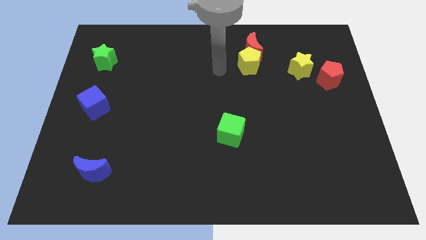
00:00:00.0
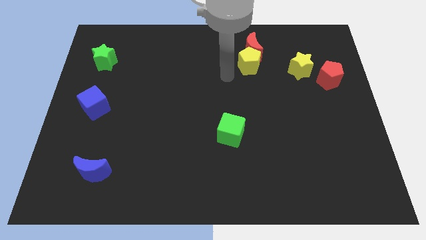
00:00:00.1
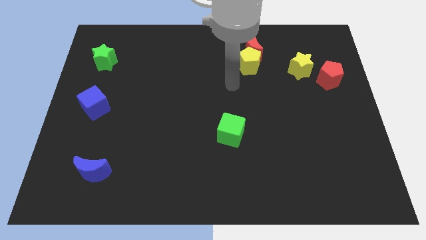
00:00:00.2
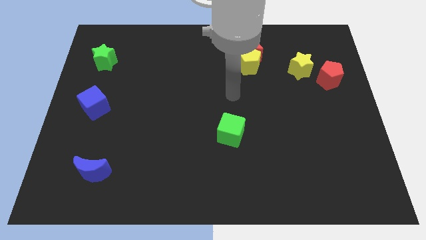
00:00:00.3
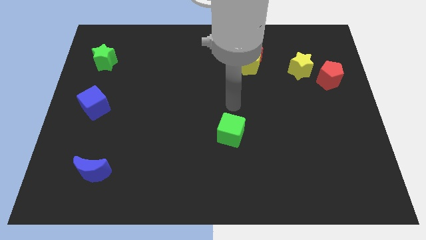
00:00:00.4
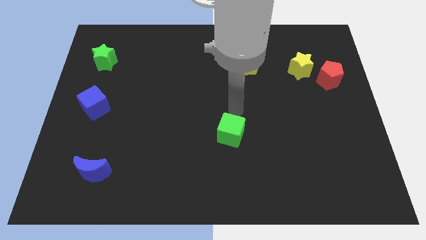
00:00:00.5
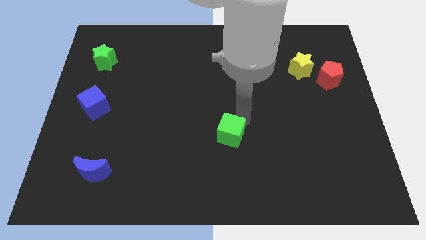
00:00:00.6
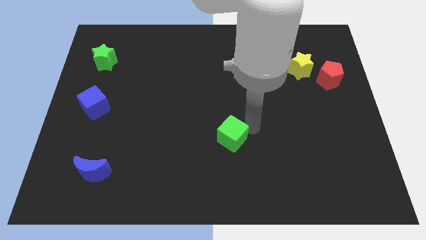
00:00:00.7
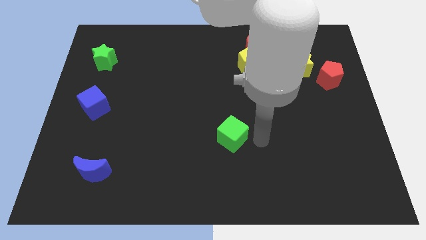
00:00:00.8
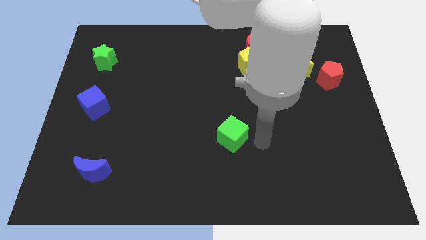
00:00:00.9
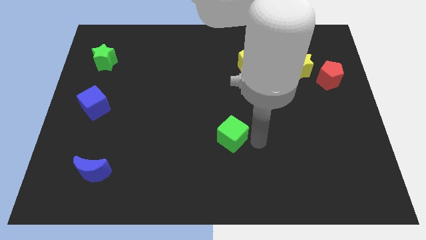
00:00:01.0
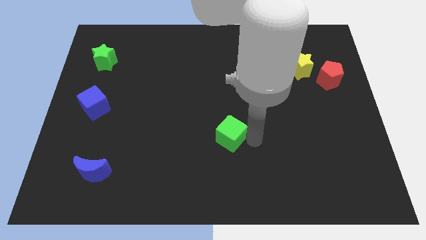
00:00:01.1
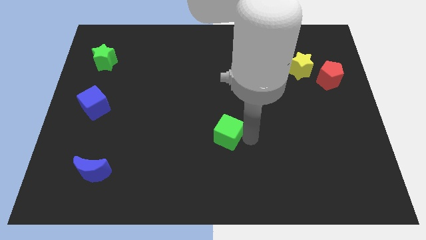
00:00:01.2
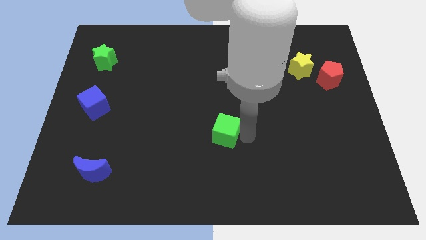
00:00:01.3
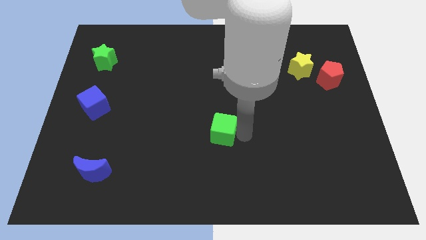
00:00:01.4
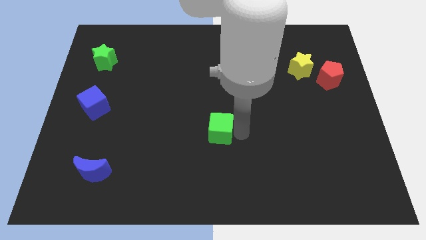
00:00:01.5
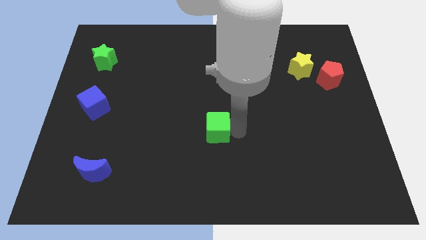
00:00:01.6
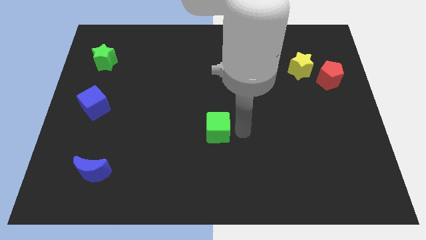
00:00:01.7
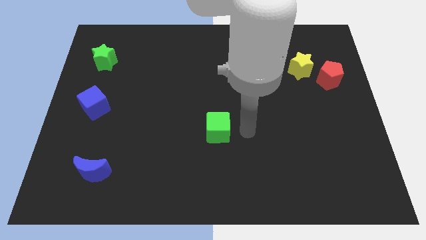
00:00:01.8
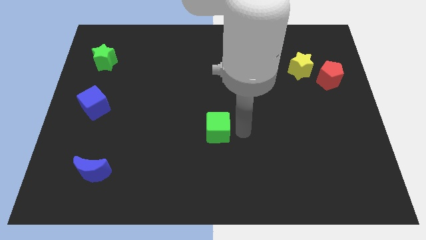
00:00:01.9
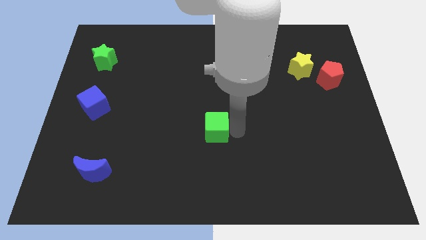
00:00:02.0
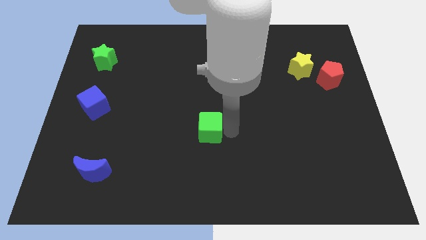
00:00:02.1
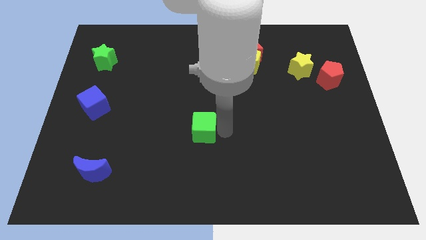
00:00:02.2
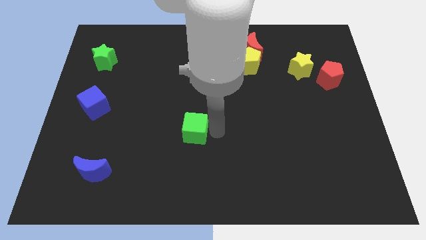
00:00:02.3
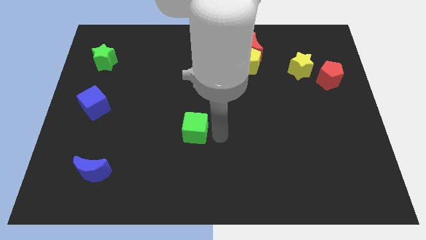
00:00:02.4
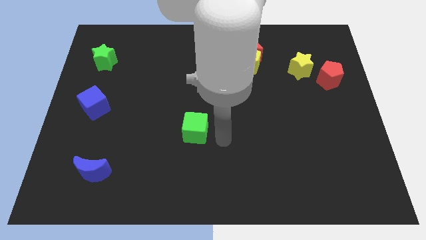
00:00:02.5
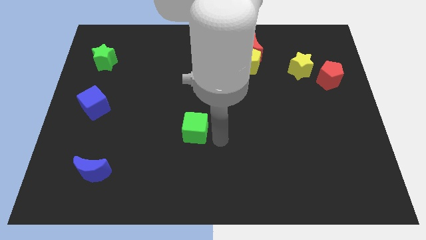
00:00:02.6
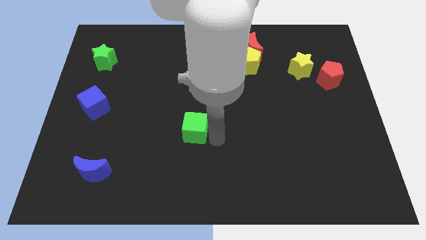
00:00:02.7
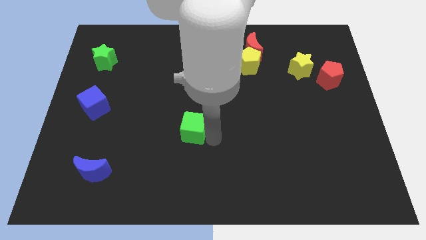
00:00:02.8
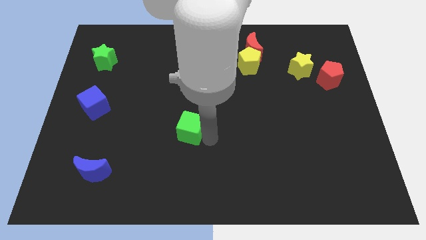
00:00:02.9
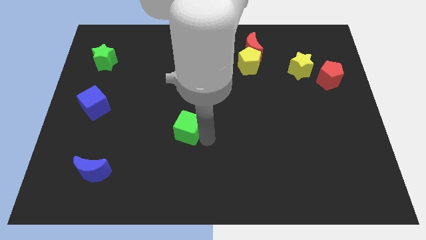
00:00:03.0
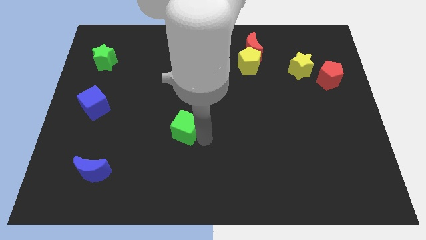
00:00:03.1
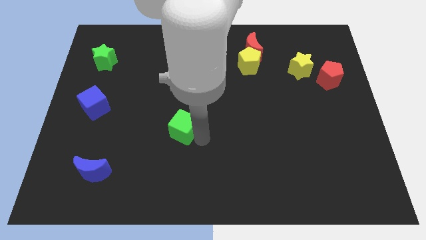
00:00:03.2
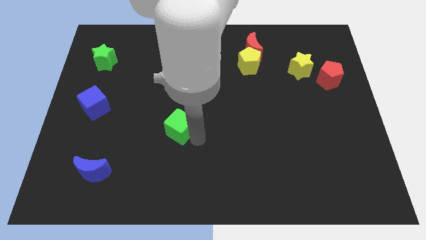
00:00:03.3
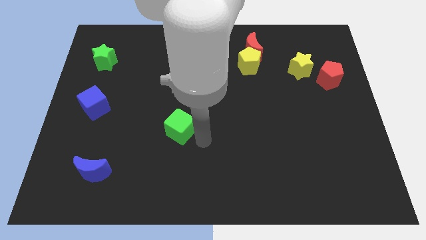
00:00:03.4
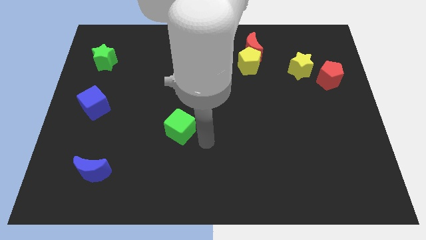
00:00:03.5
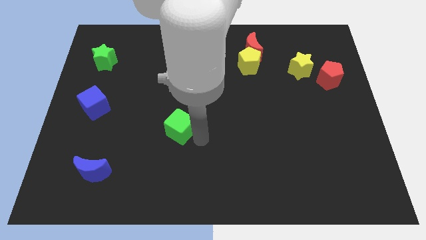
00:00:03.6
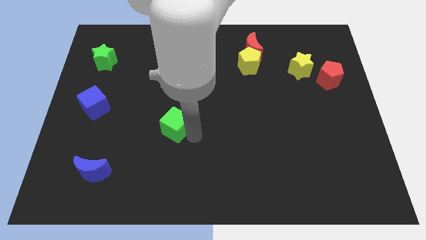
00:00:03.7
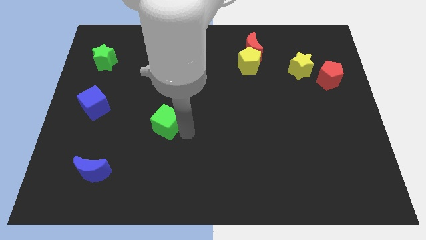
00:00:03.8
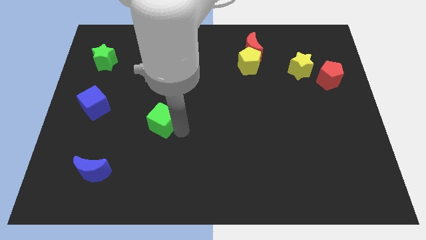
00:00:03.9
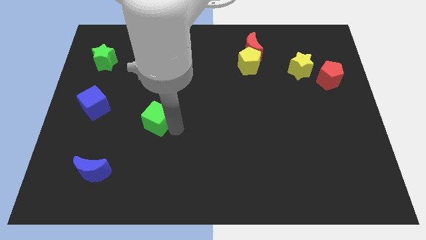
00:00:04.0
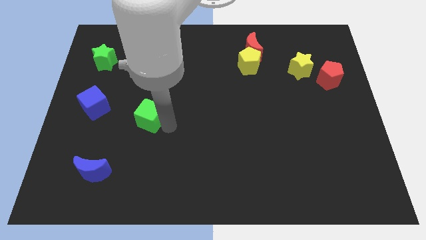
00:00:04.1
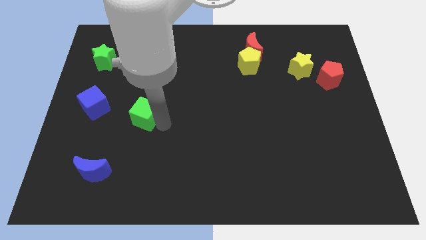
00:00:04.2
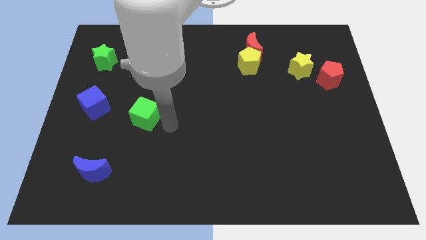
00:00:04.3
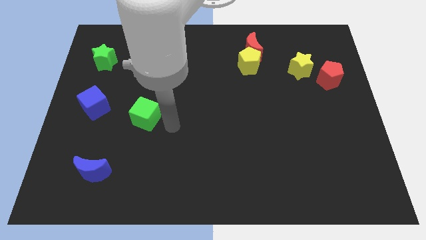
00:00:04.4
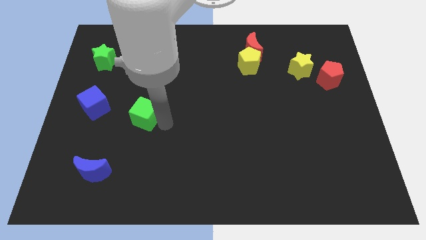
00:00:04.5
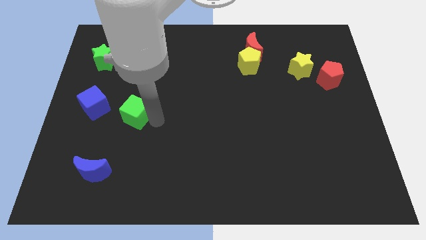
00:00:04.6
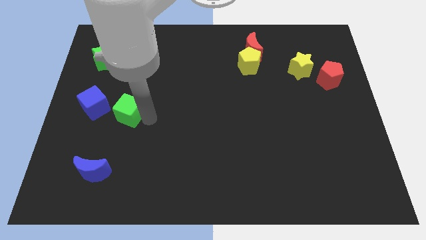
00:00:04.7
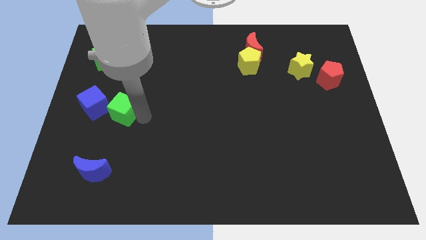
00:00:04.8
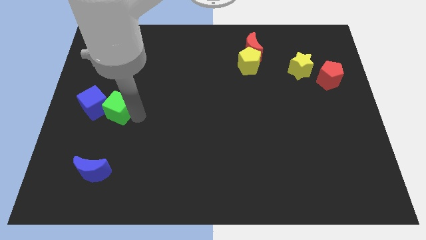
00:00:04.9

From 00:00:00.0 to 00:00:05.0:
put the green cube to the blue cube

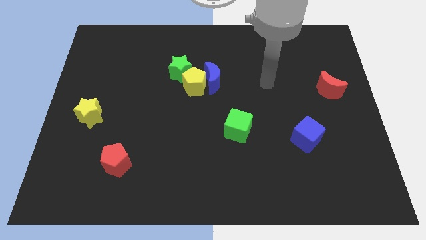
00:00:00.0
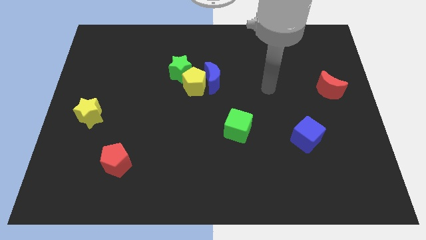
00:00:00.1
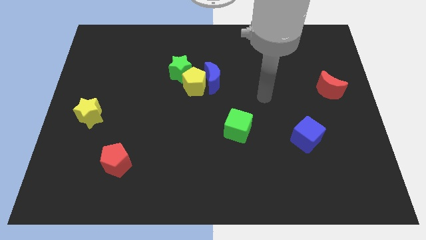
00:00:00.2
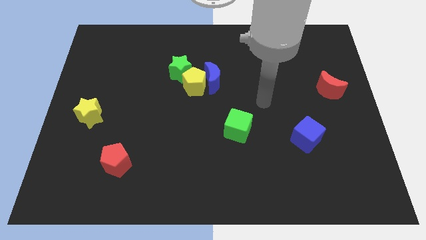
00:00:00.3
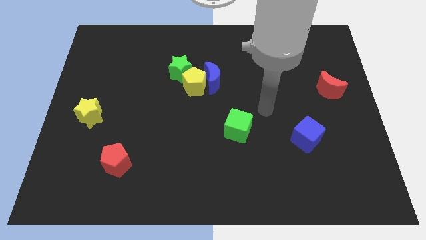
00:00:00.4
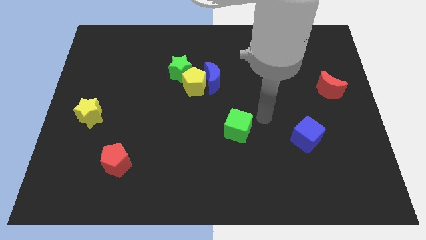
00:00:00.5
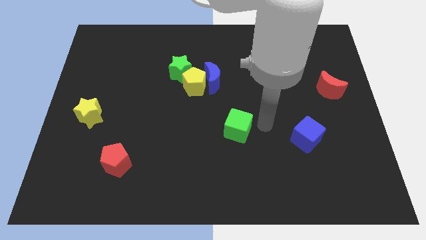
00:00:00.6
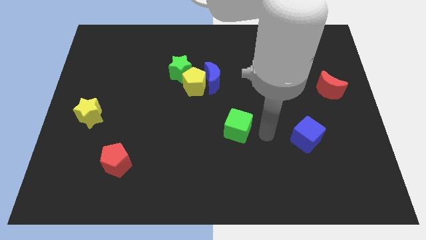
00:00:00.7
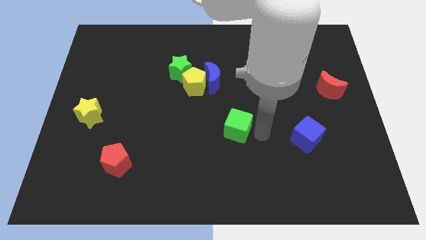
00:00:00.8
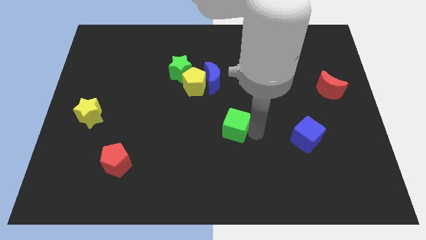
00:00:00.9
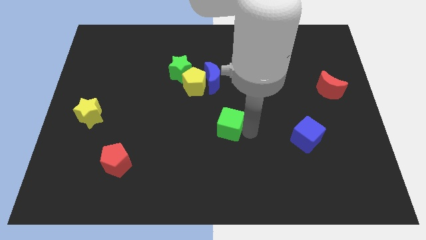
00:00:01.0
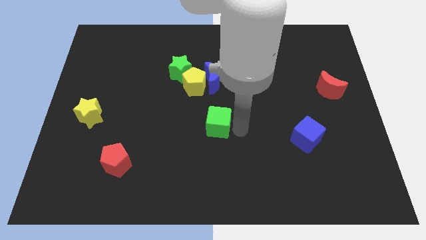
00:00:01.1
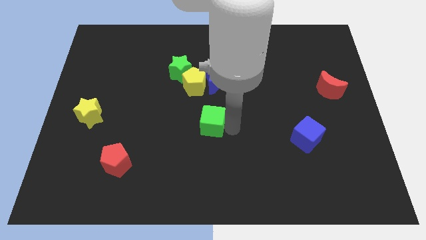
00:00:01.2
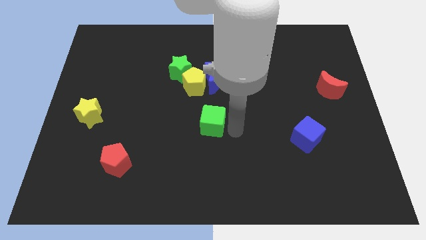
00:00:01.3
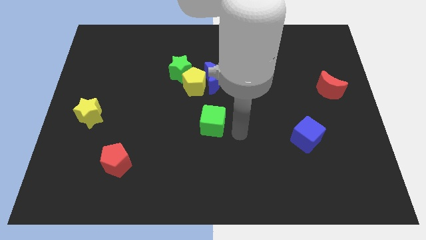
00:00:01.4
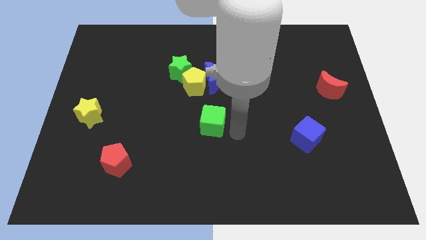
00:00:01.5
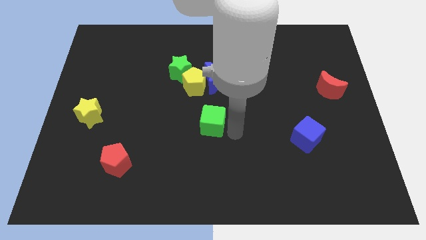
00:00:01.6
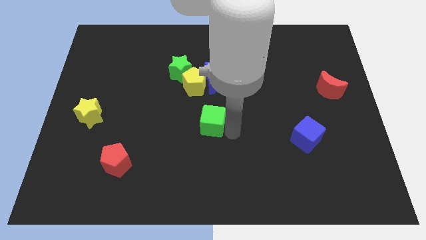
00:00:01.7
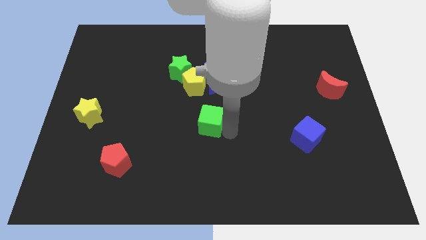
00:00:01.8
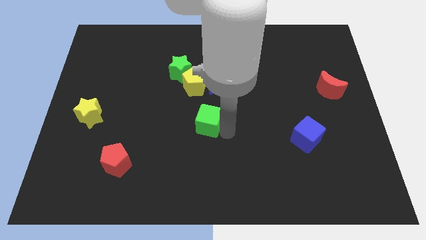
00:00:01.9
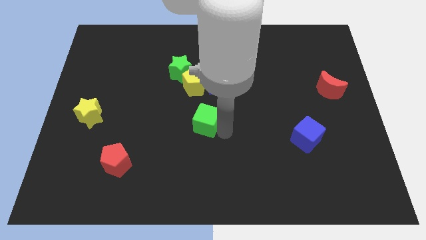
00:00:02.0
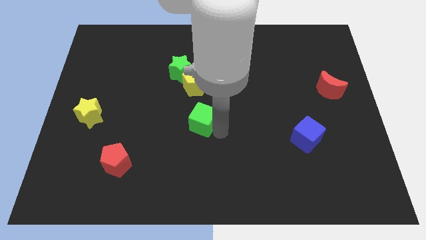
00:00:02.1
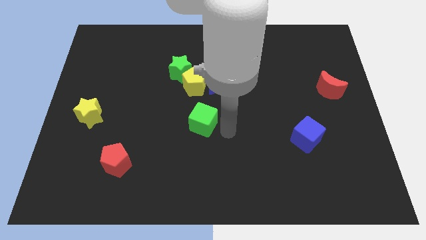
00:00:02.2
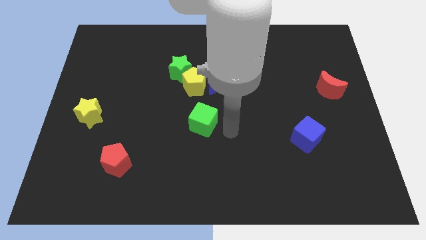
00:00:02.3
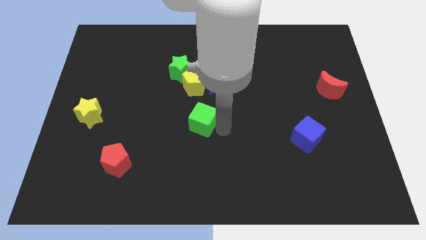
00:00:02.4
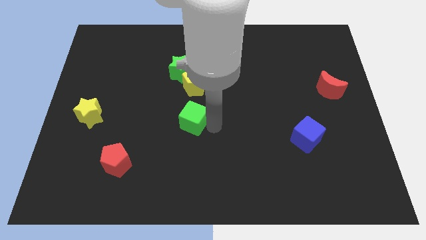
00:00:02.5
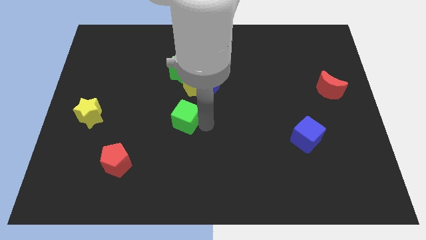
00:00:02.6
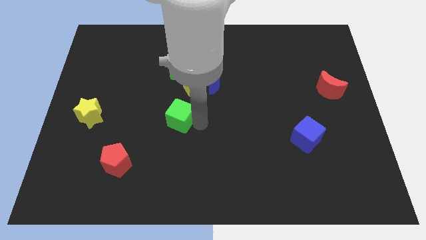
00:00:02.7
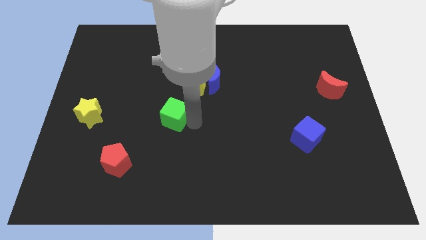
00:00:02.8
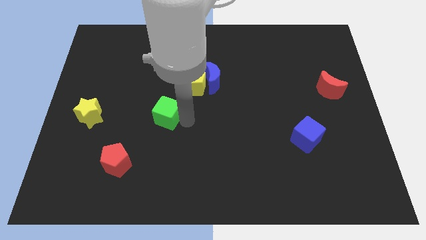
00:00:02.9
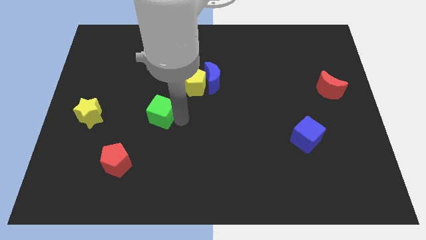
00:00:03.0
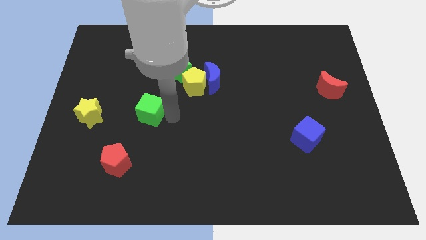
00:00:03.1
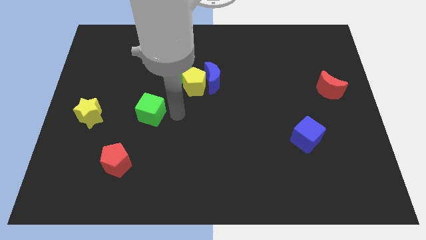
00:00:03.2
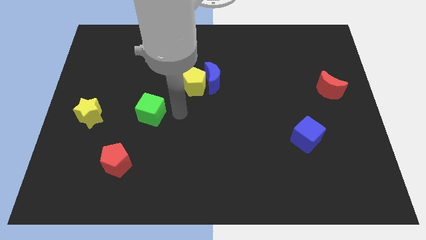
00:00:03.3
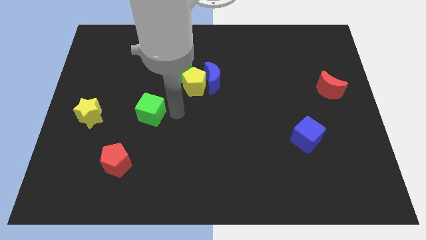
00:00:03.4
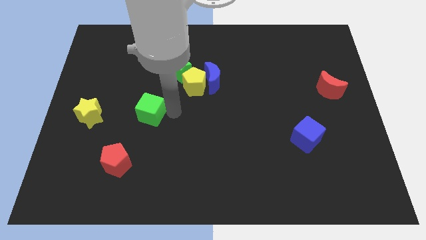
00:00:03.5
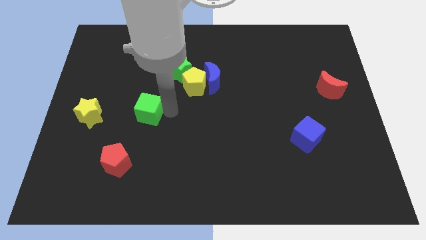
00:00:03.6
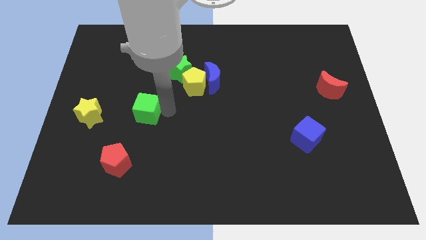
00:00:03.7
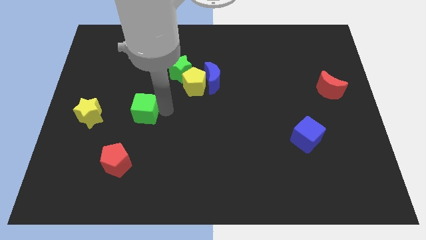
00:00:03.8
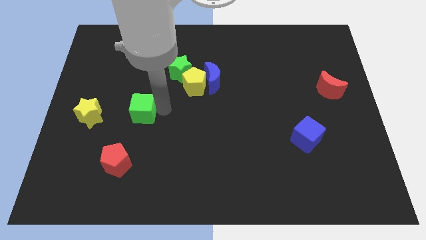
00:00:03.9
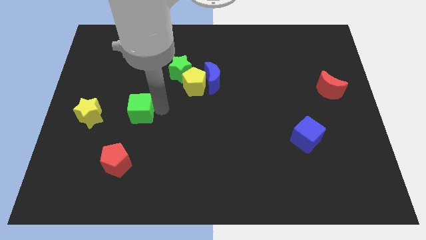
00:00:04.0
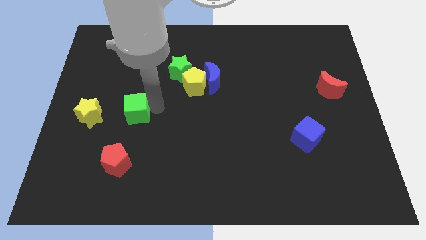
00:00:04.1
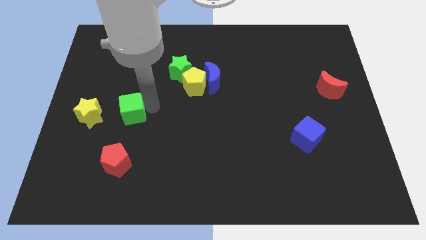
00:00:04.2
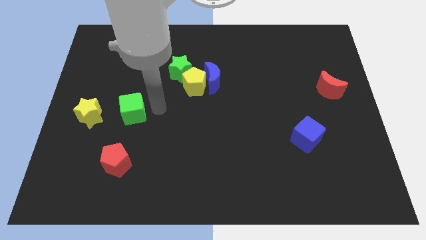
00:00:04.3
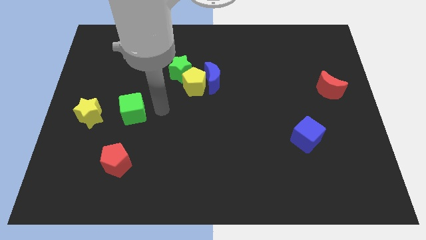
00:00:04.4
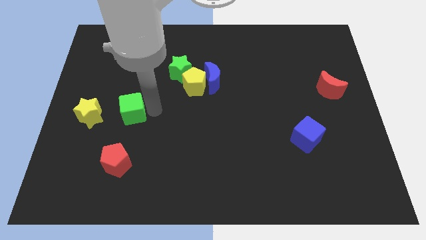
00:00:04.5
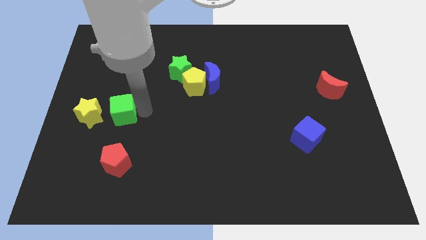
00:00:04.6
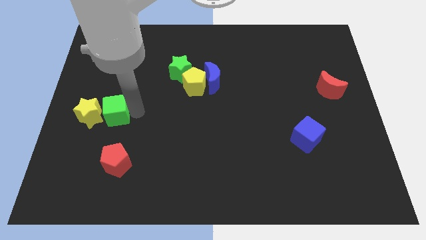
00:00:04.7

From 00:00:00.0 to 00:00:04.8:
move the green cube close to the yellow star
